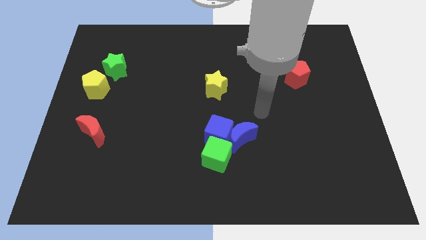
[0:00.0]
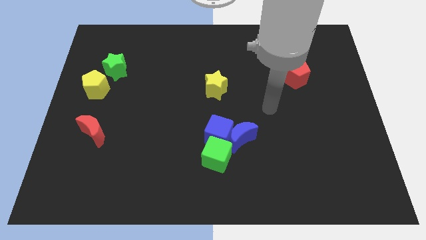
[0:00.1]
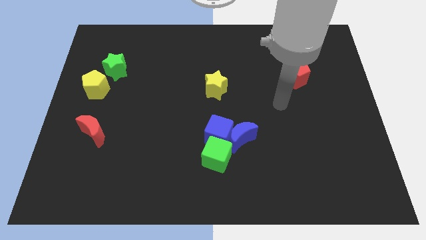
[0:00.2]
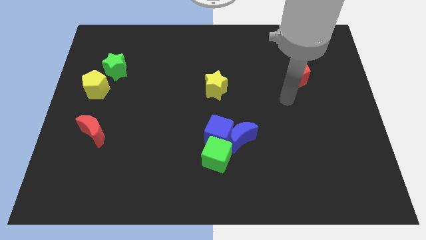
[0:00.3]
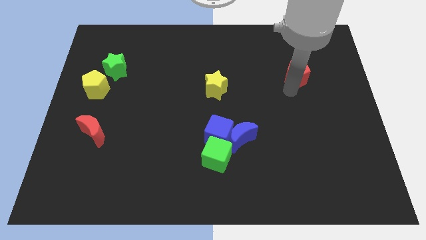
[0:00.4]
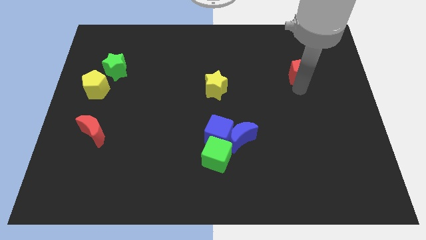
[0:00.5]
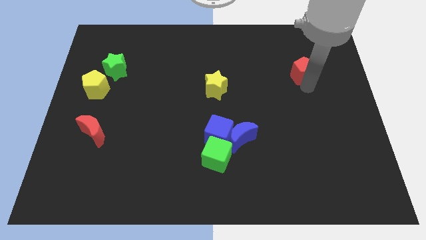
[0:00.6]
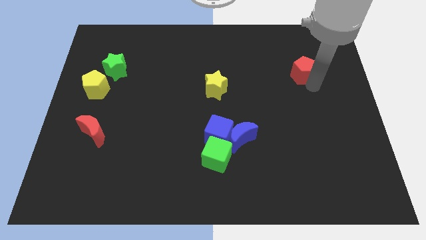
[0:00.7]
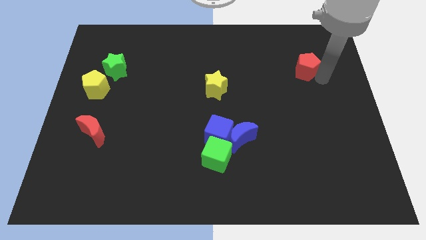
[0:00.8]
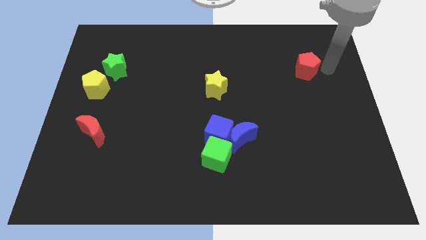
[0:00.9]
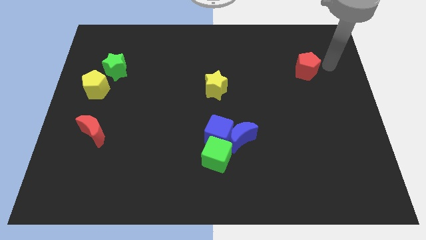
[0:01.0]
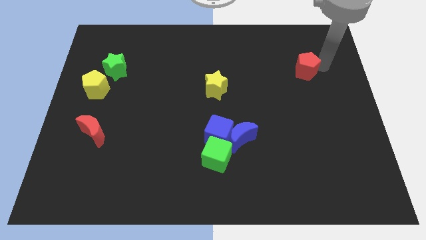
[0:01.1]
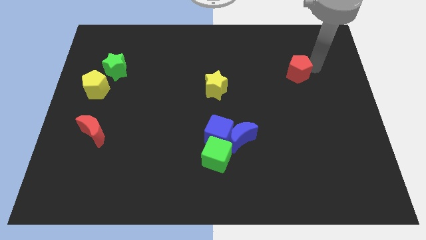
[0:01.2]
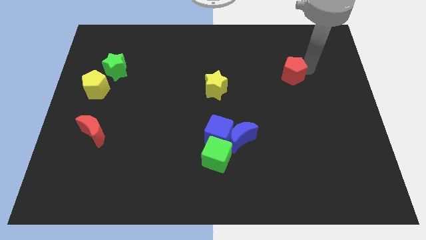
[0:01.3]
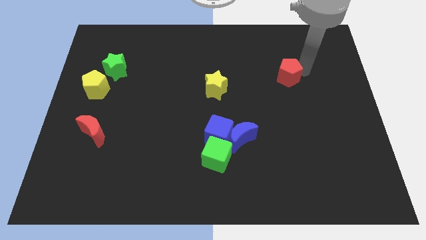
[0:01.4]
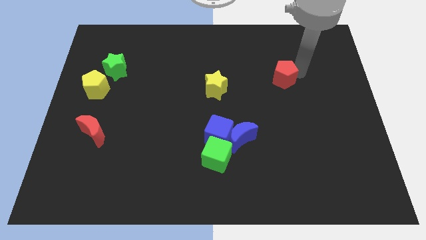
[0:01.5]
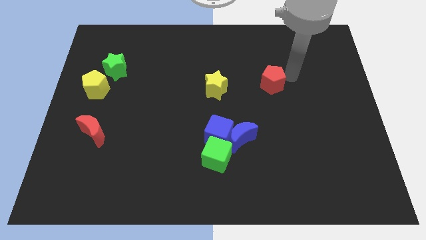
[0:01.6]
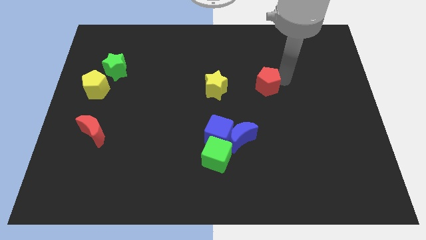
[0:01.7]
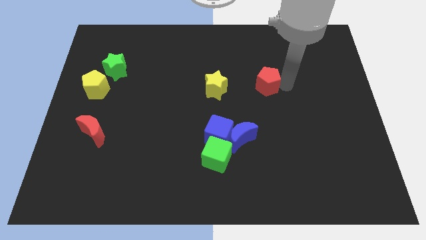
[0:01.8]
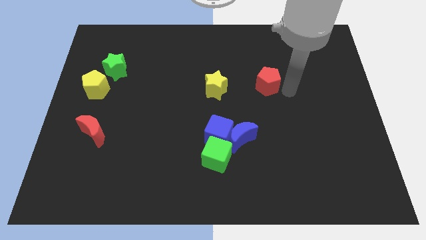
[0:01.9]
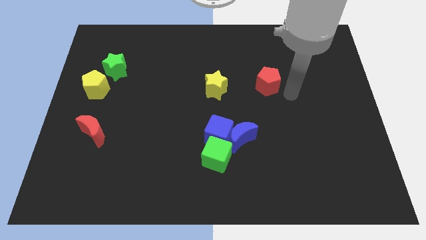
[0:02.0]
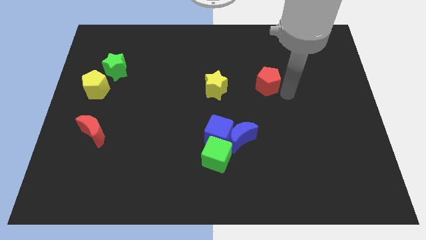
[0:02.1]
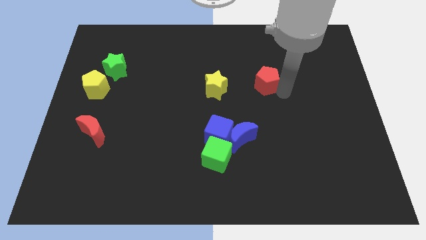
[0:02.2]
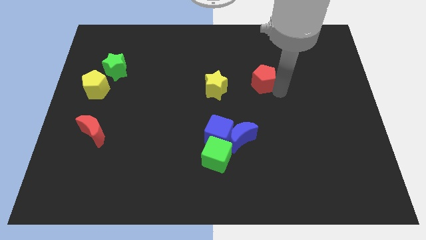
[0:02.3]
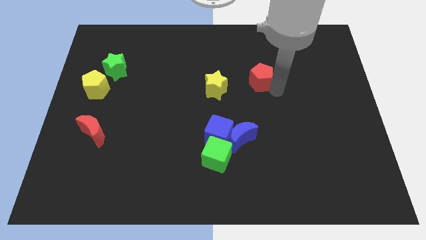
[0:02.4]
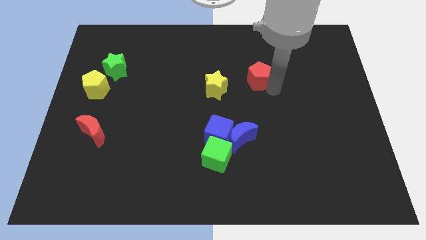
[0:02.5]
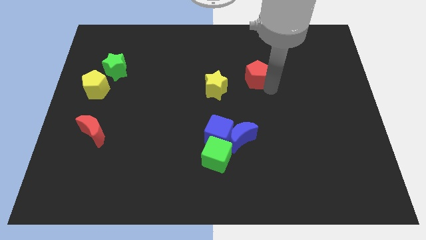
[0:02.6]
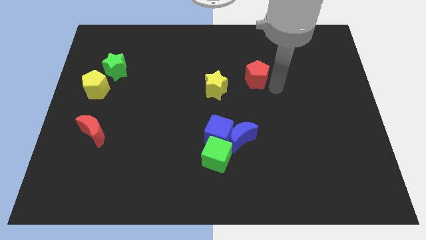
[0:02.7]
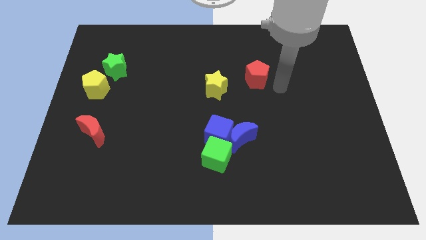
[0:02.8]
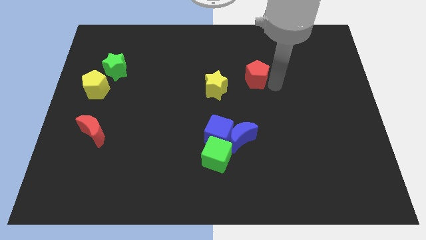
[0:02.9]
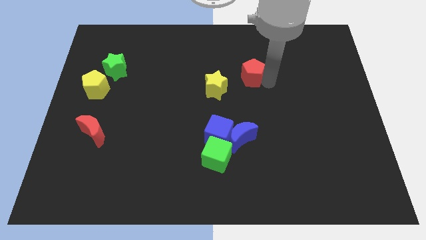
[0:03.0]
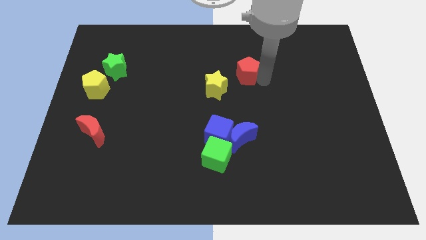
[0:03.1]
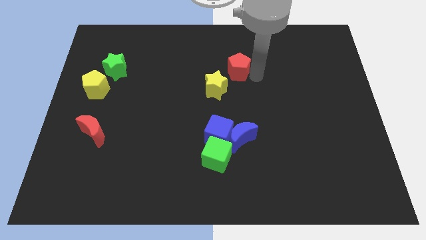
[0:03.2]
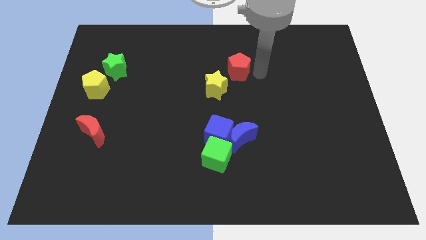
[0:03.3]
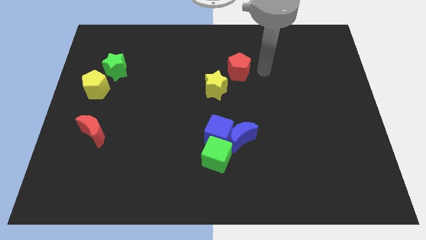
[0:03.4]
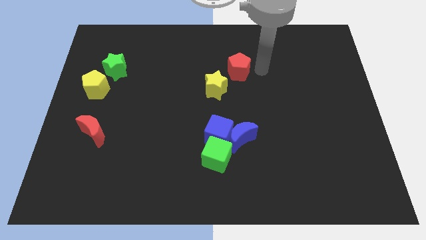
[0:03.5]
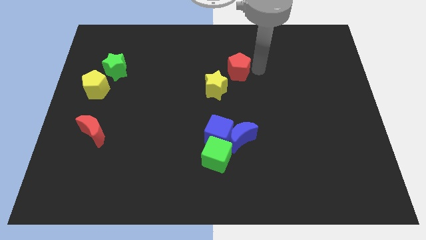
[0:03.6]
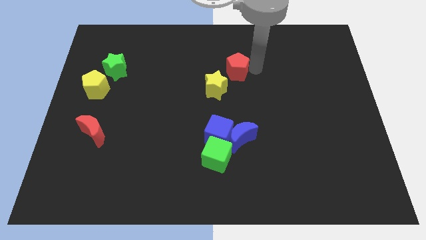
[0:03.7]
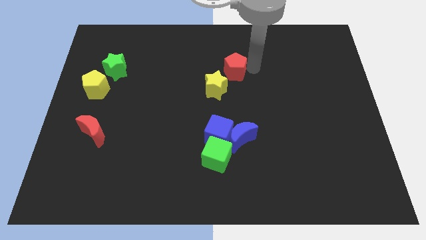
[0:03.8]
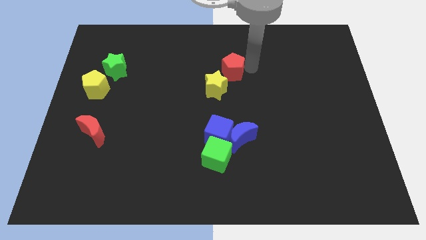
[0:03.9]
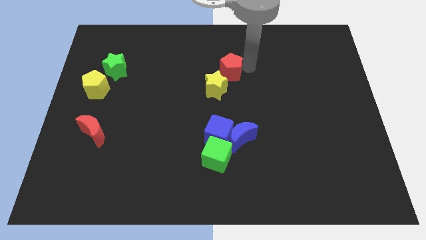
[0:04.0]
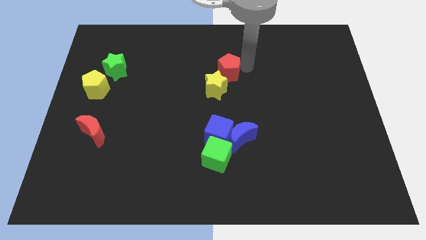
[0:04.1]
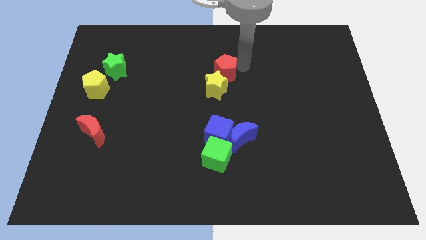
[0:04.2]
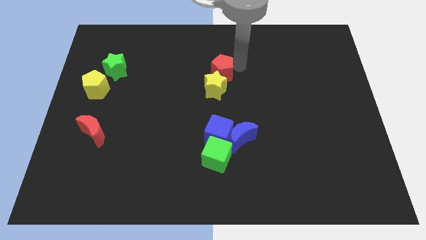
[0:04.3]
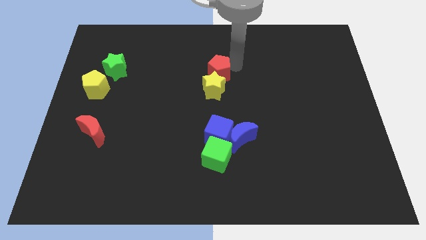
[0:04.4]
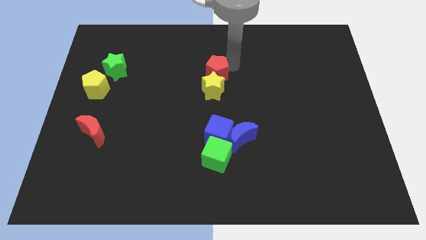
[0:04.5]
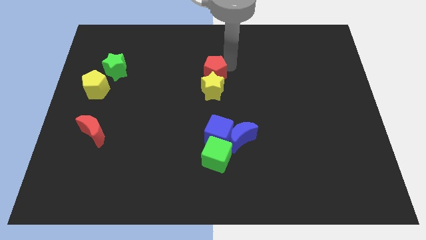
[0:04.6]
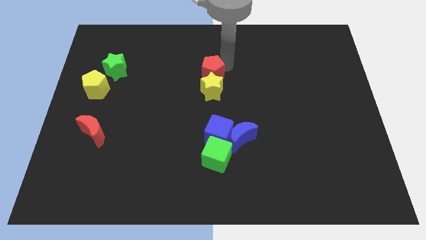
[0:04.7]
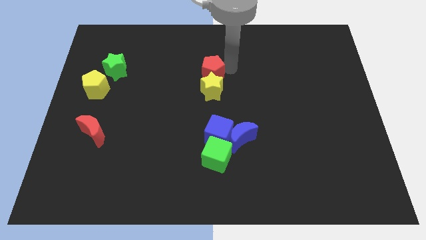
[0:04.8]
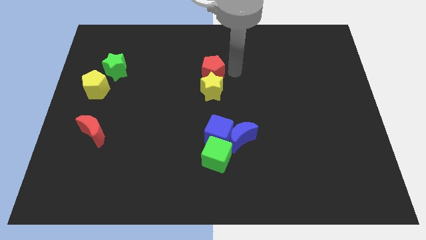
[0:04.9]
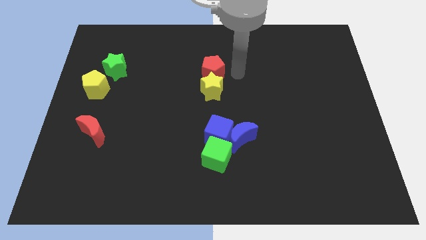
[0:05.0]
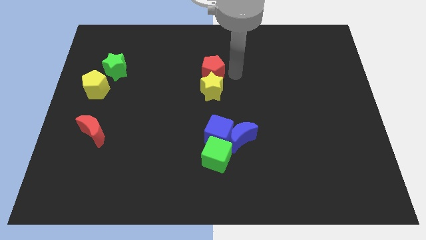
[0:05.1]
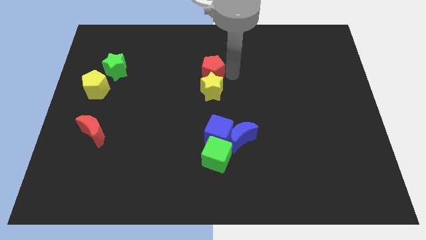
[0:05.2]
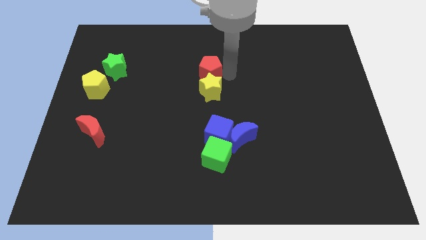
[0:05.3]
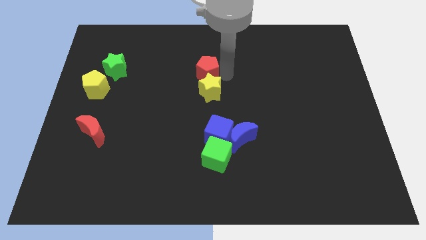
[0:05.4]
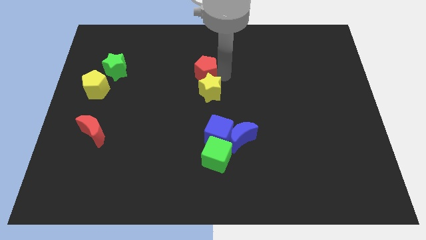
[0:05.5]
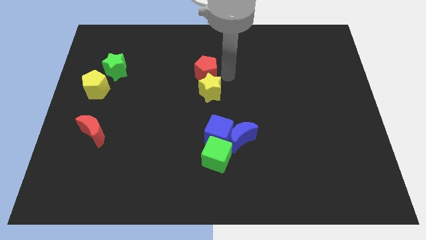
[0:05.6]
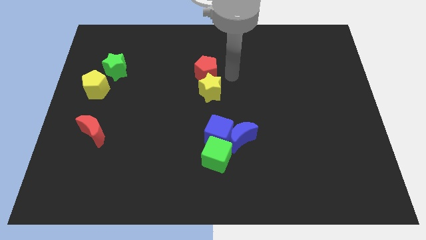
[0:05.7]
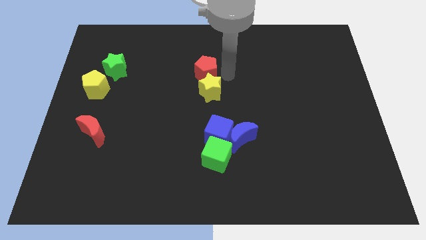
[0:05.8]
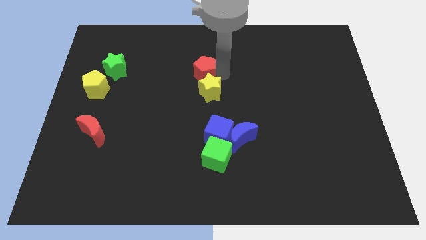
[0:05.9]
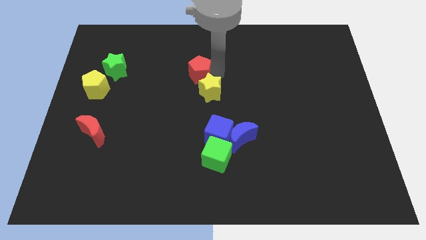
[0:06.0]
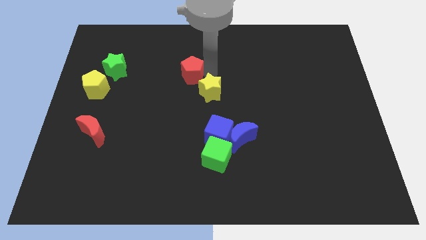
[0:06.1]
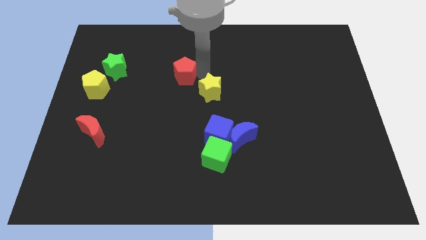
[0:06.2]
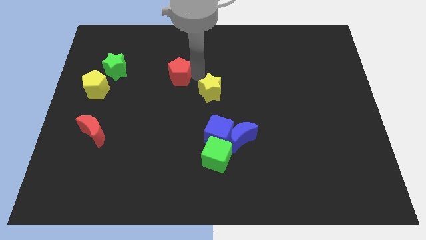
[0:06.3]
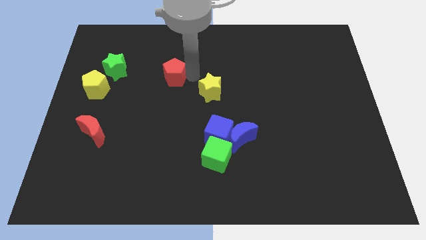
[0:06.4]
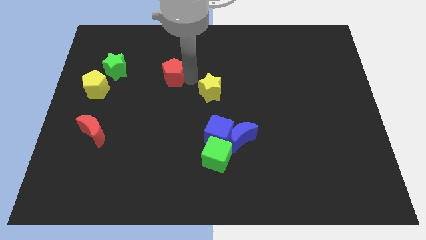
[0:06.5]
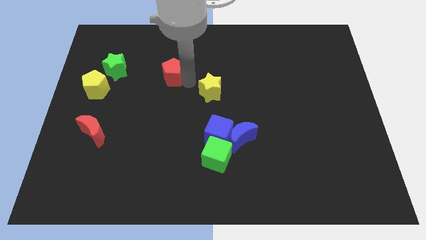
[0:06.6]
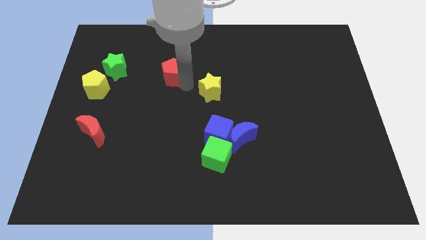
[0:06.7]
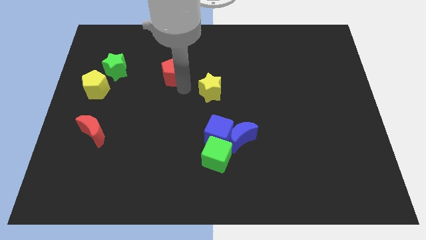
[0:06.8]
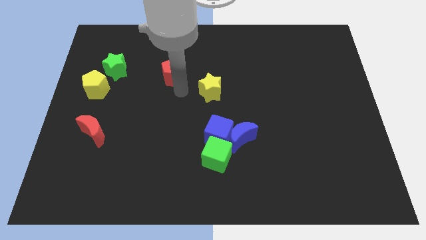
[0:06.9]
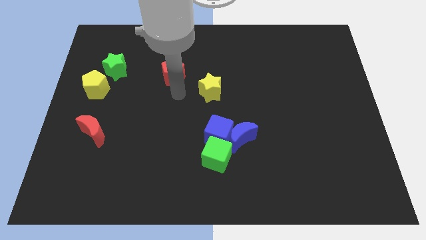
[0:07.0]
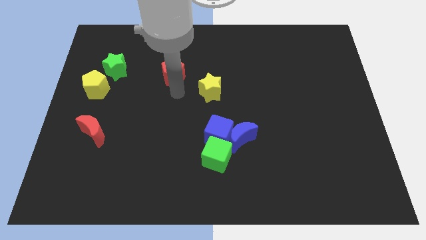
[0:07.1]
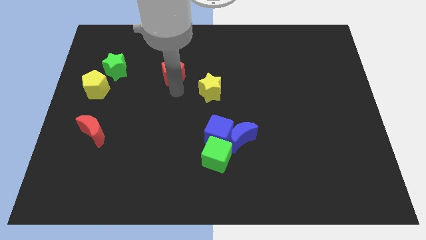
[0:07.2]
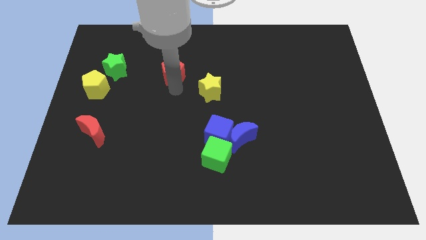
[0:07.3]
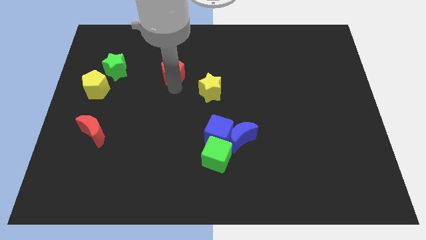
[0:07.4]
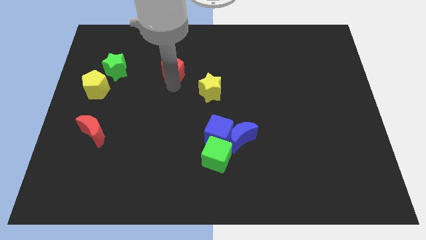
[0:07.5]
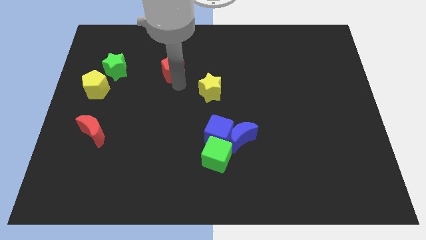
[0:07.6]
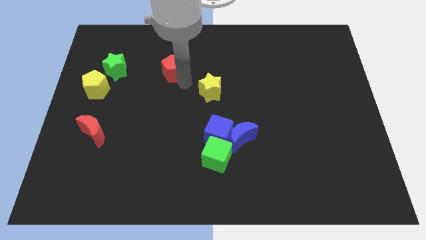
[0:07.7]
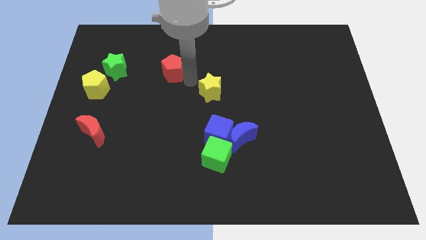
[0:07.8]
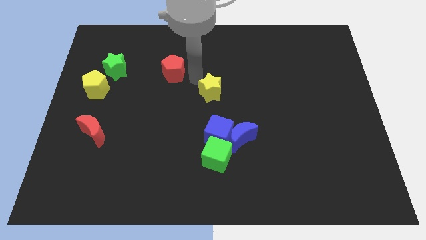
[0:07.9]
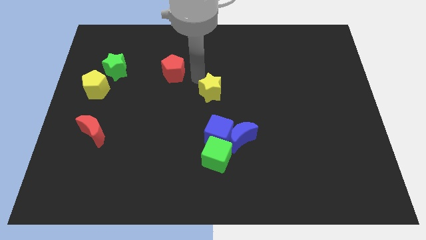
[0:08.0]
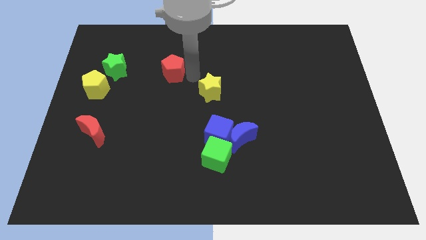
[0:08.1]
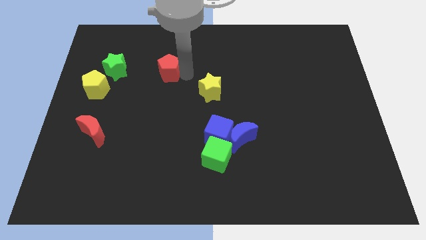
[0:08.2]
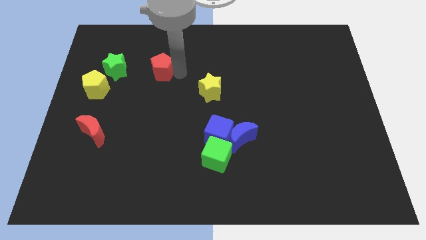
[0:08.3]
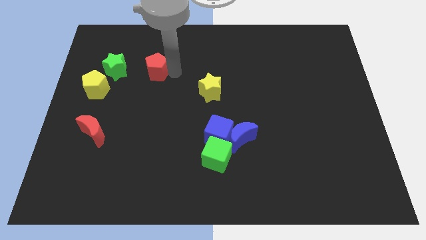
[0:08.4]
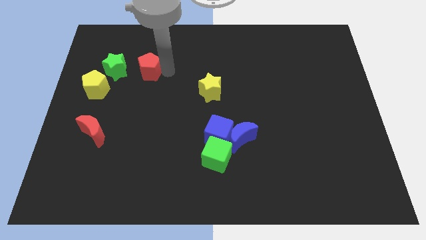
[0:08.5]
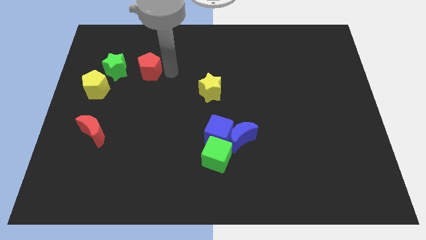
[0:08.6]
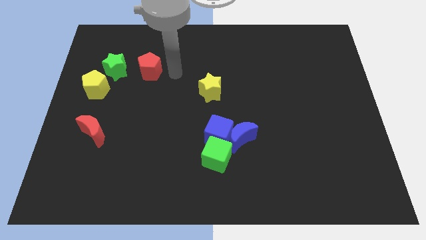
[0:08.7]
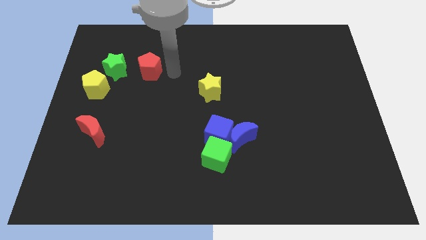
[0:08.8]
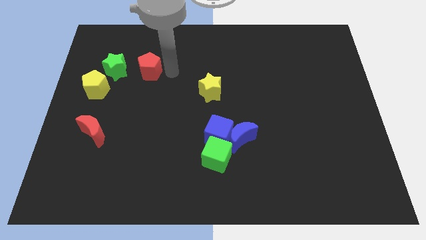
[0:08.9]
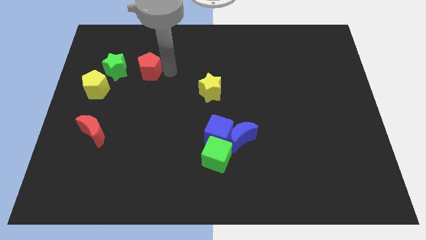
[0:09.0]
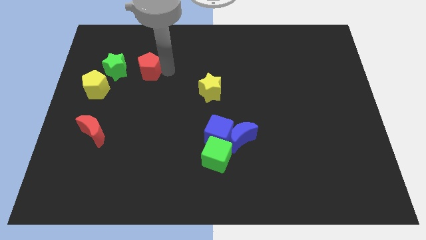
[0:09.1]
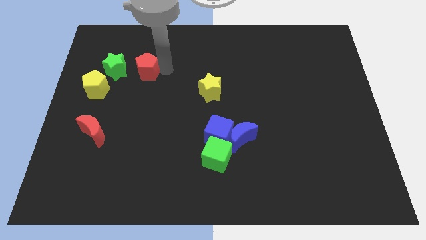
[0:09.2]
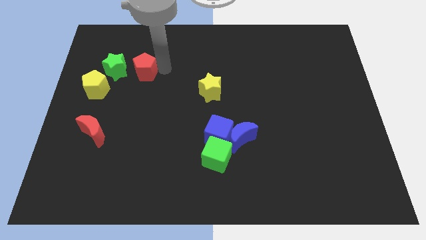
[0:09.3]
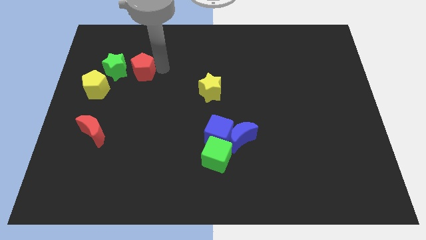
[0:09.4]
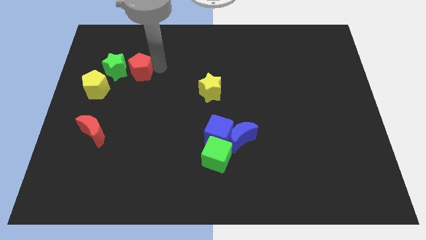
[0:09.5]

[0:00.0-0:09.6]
put the red pentagon close to the green star
